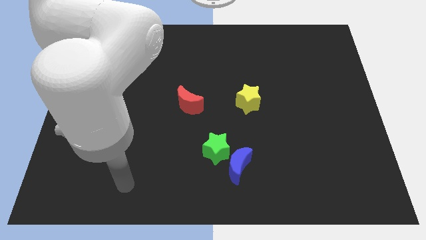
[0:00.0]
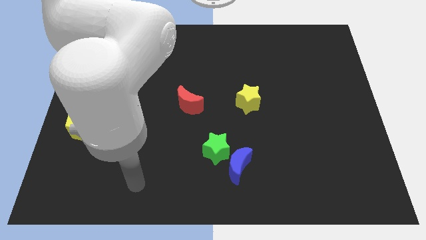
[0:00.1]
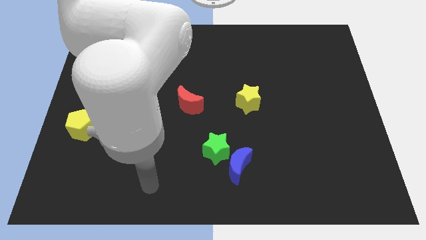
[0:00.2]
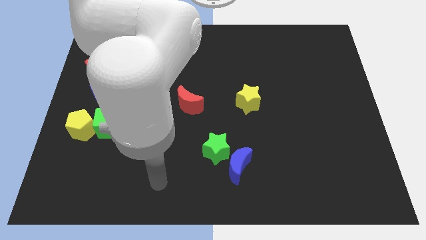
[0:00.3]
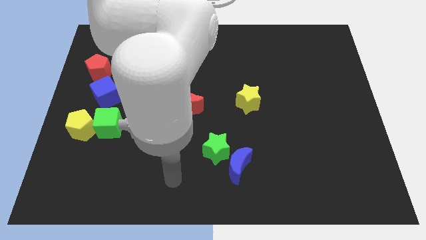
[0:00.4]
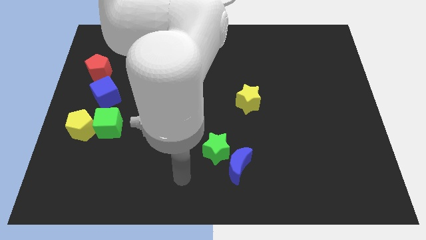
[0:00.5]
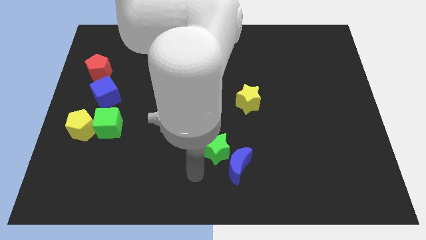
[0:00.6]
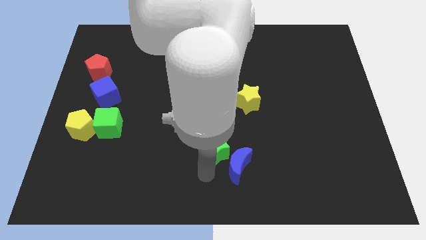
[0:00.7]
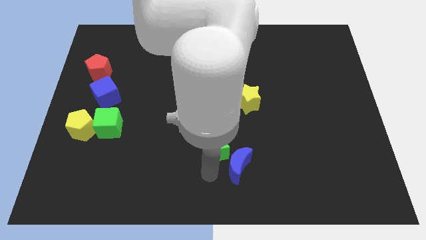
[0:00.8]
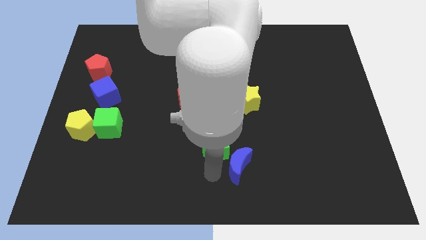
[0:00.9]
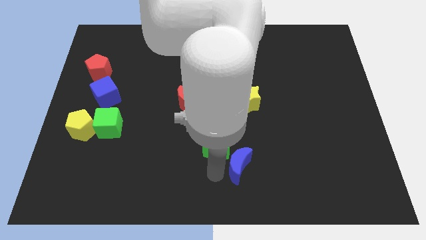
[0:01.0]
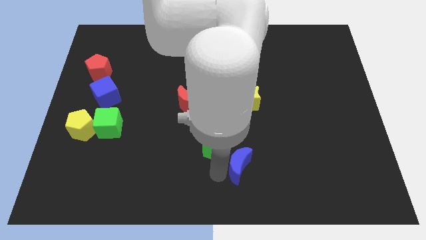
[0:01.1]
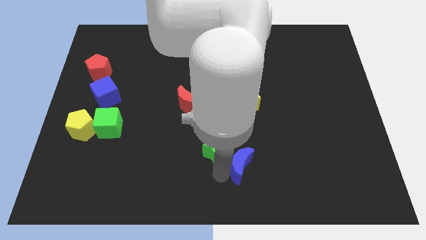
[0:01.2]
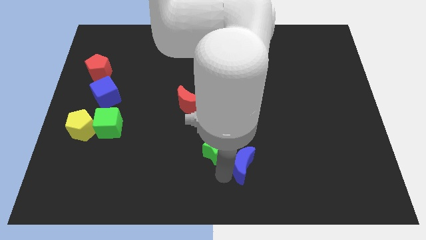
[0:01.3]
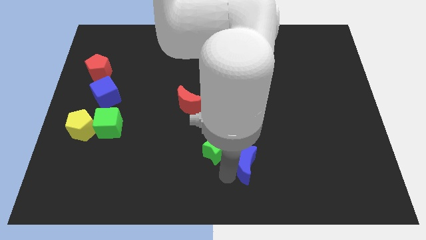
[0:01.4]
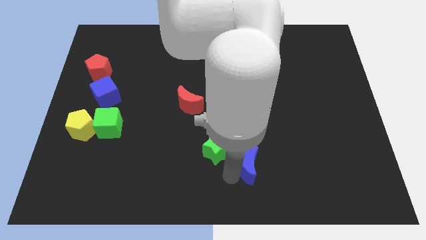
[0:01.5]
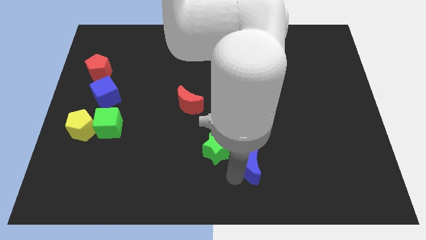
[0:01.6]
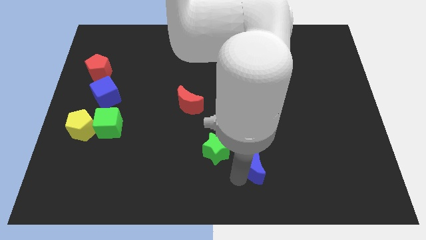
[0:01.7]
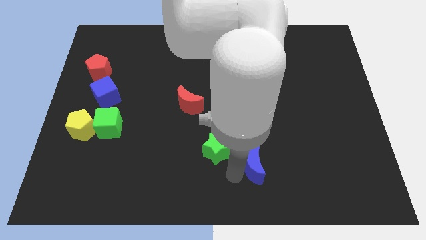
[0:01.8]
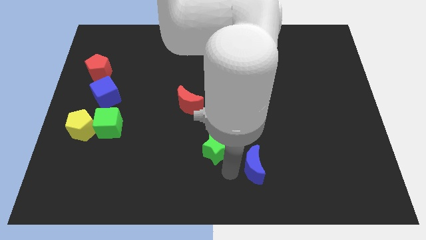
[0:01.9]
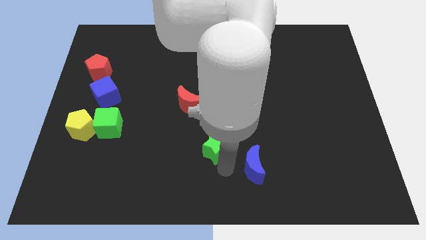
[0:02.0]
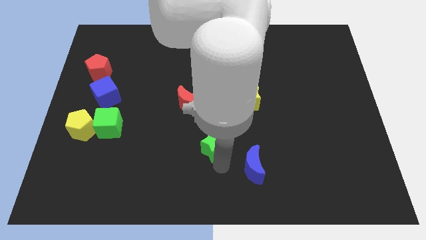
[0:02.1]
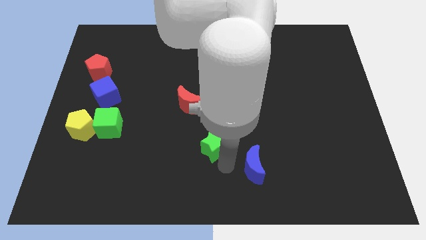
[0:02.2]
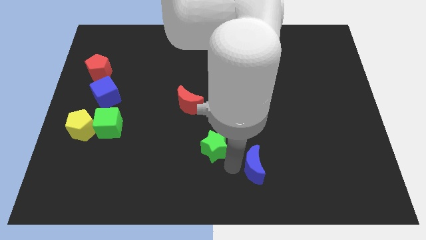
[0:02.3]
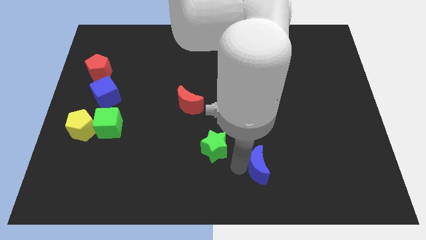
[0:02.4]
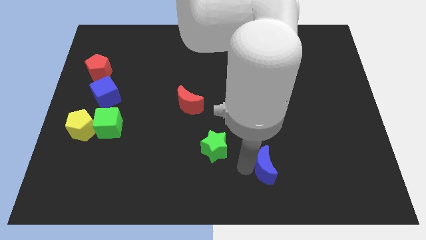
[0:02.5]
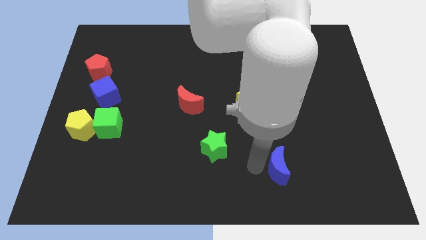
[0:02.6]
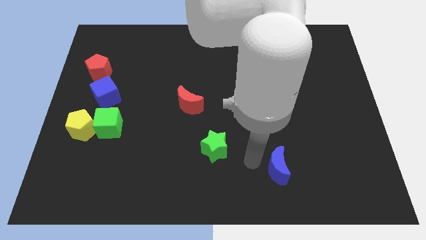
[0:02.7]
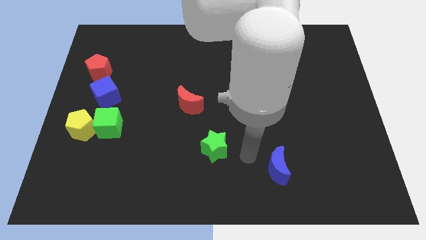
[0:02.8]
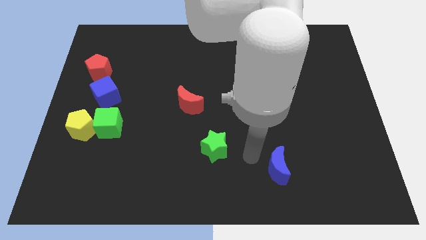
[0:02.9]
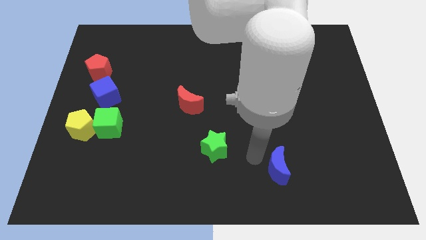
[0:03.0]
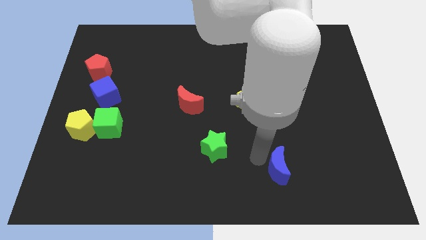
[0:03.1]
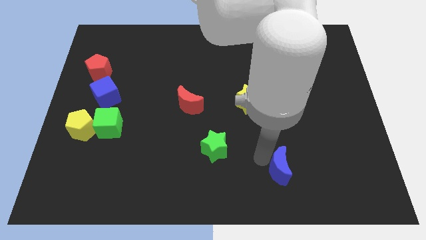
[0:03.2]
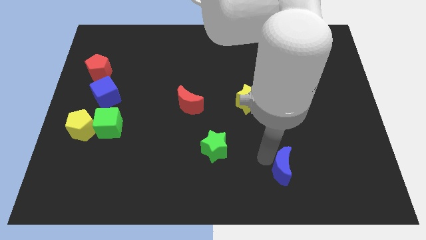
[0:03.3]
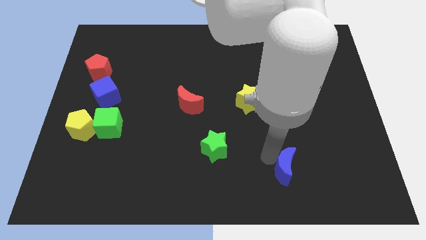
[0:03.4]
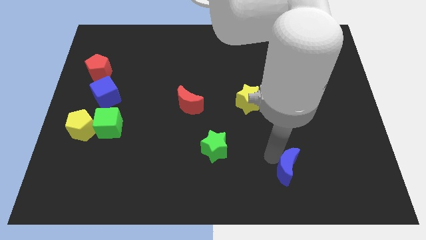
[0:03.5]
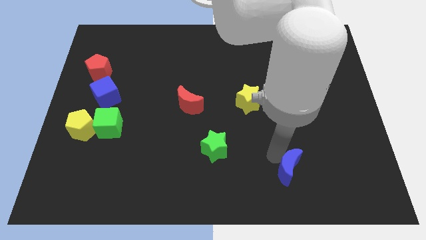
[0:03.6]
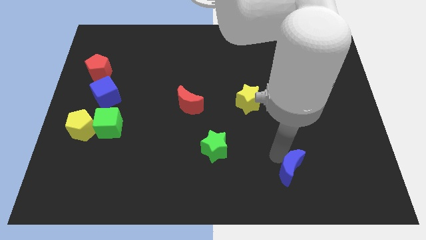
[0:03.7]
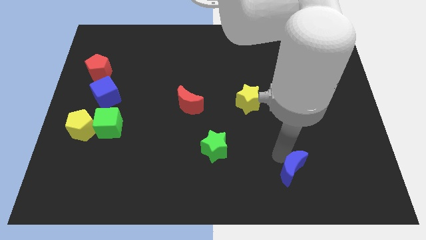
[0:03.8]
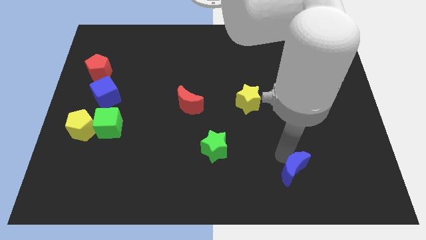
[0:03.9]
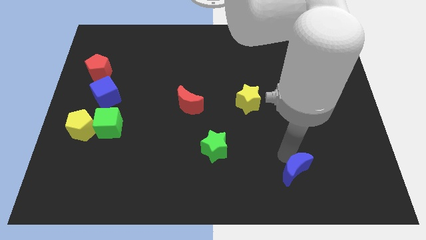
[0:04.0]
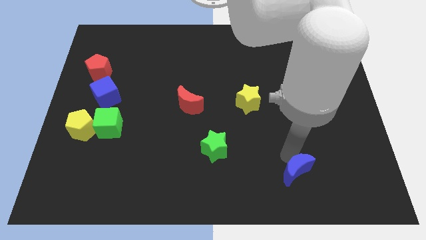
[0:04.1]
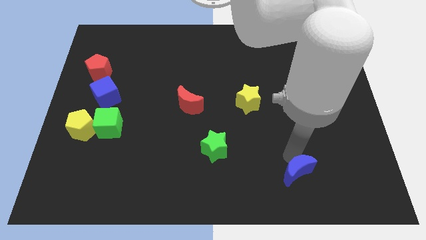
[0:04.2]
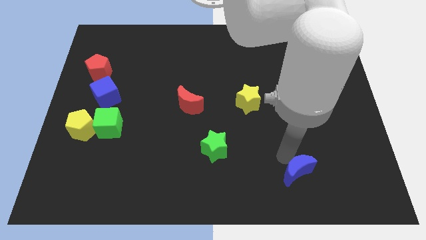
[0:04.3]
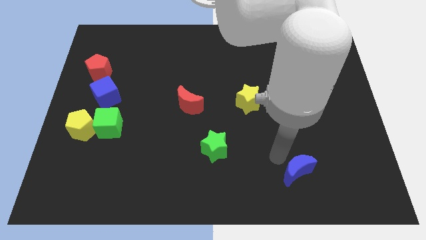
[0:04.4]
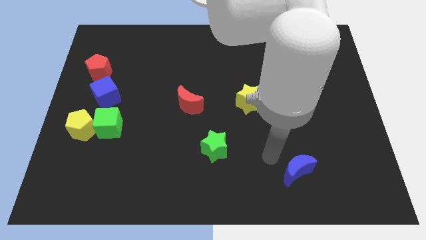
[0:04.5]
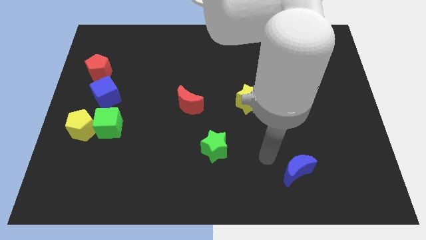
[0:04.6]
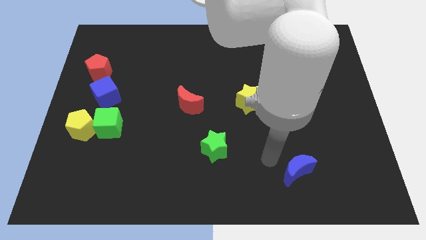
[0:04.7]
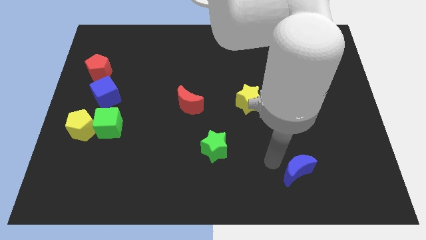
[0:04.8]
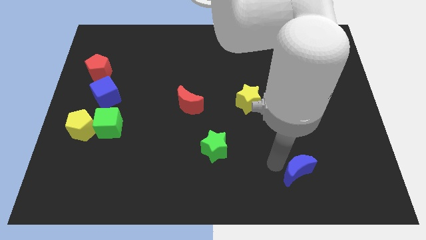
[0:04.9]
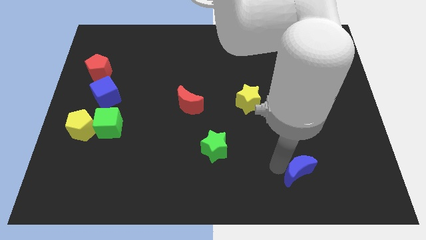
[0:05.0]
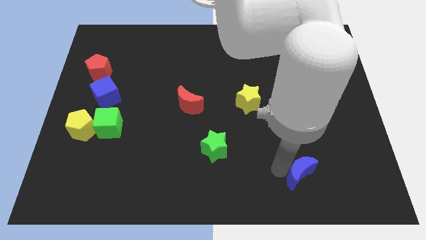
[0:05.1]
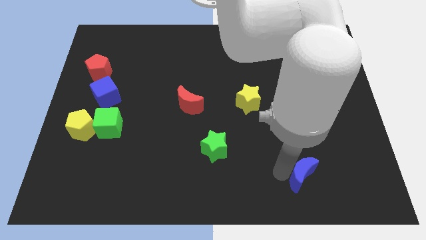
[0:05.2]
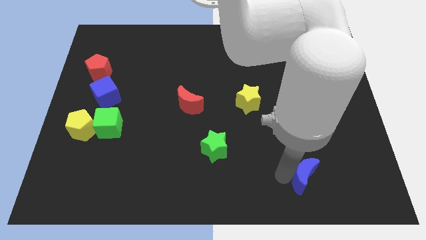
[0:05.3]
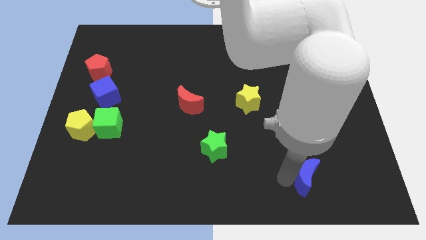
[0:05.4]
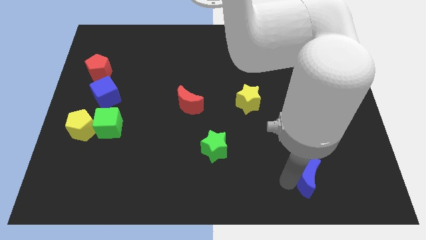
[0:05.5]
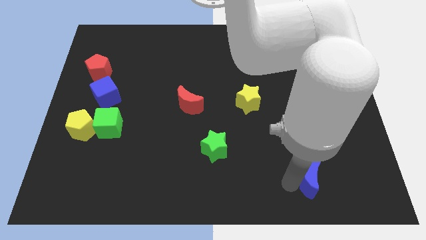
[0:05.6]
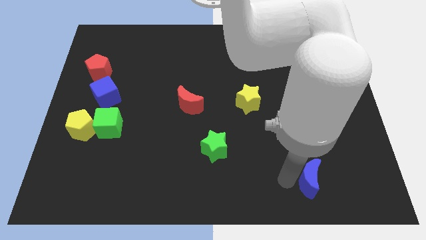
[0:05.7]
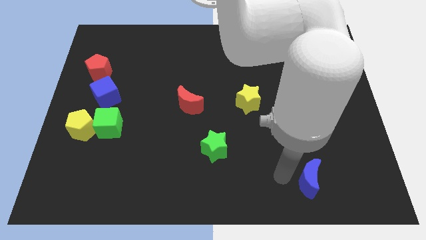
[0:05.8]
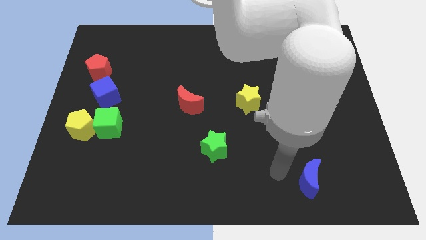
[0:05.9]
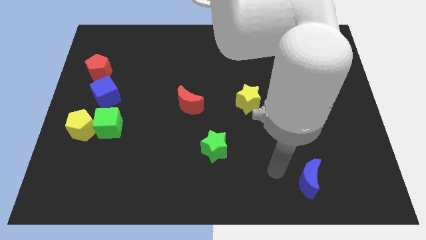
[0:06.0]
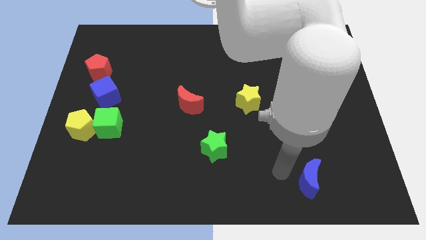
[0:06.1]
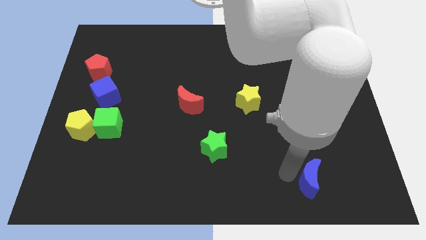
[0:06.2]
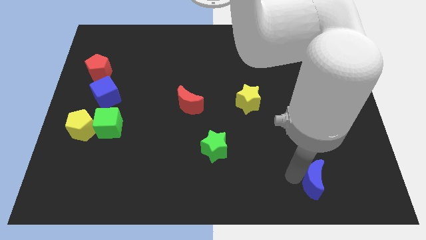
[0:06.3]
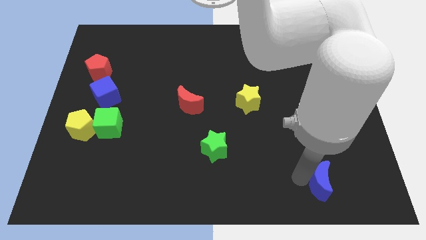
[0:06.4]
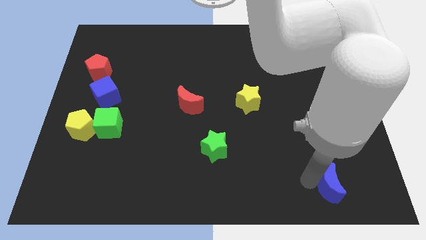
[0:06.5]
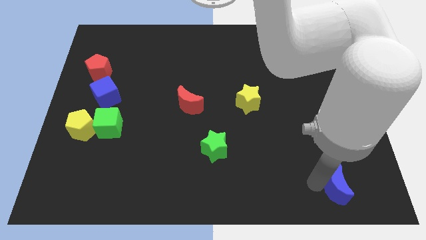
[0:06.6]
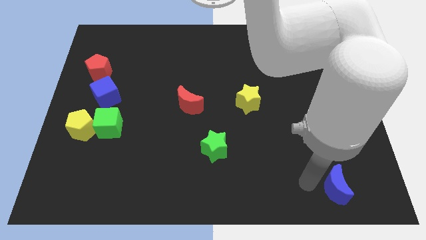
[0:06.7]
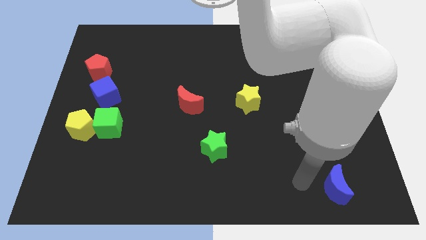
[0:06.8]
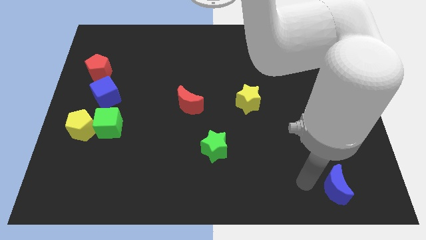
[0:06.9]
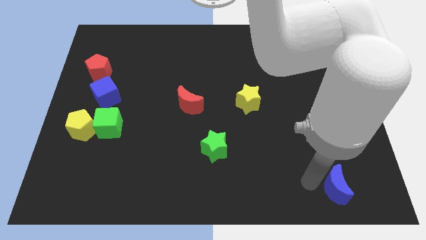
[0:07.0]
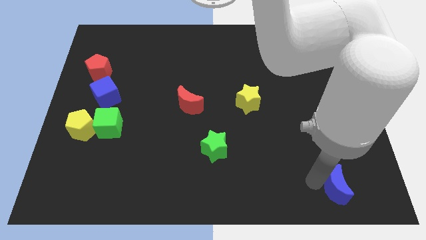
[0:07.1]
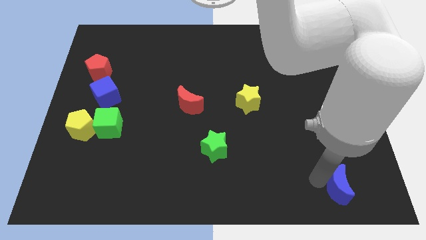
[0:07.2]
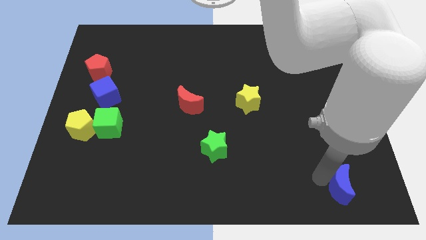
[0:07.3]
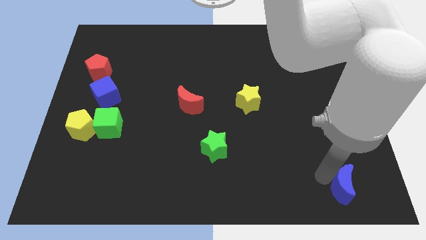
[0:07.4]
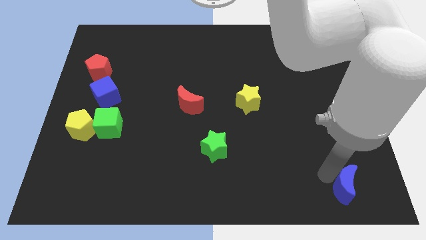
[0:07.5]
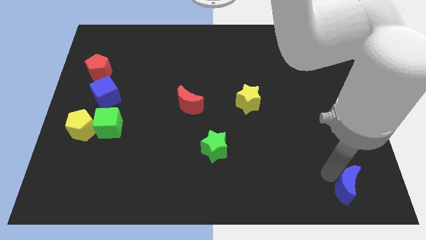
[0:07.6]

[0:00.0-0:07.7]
put the blue moon to the bottom right
